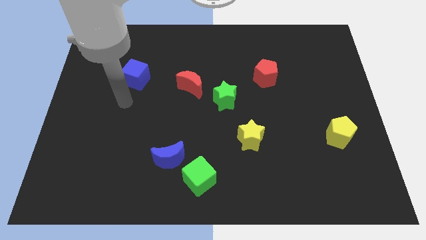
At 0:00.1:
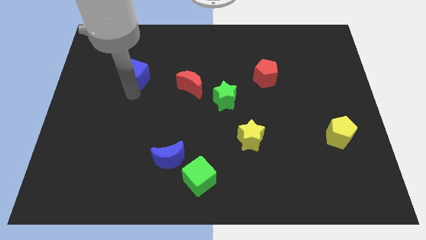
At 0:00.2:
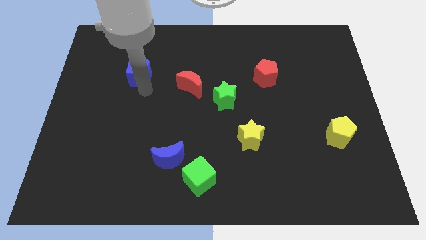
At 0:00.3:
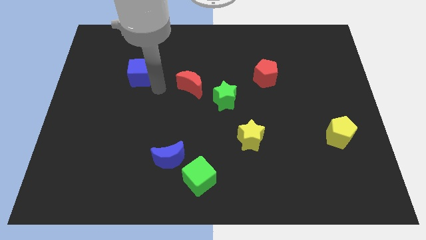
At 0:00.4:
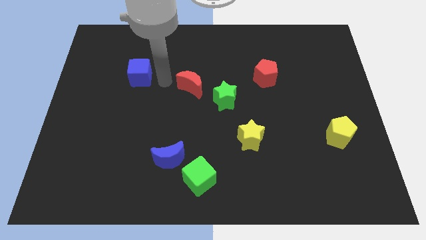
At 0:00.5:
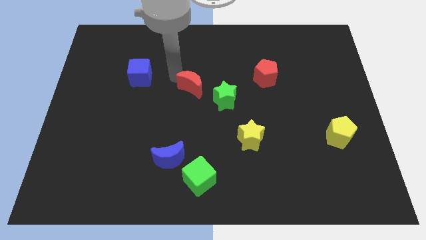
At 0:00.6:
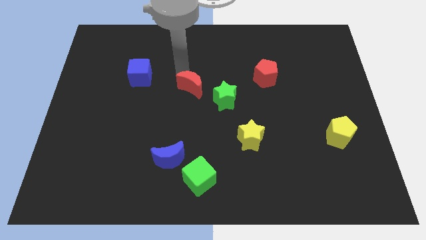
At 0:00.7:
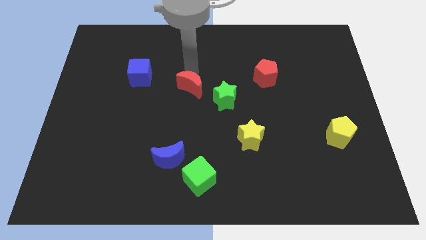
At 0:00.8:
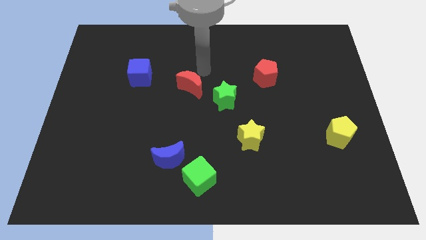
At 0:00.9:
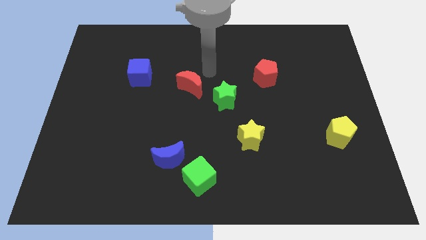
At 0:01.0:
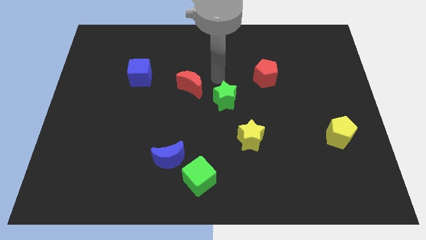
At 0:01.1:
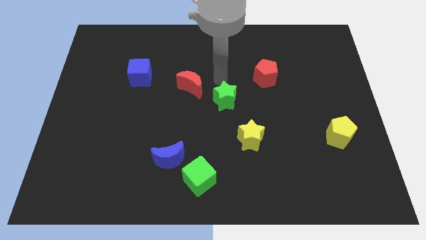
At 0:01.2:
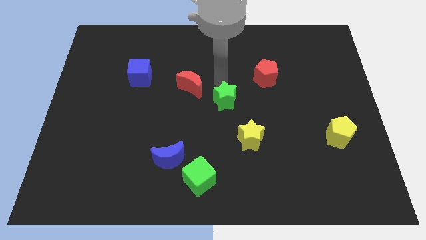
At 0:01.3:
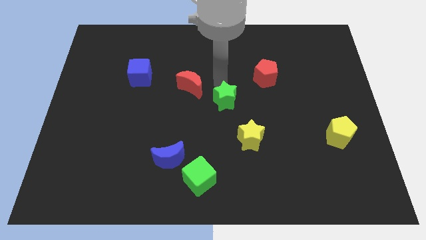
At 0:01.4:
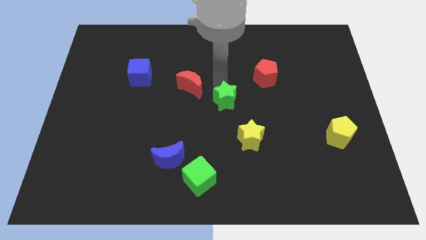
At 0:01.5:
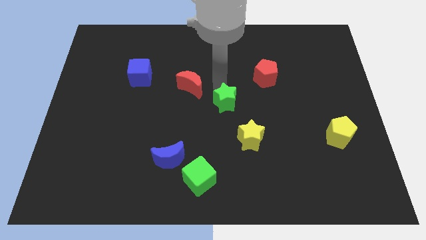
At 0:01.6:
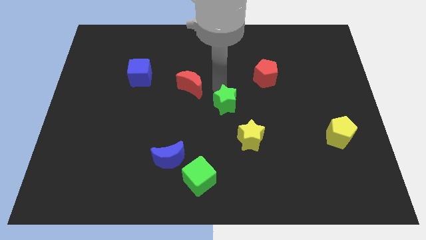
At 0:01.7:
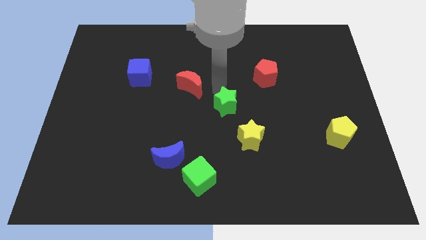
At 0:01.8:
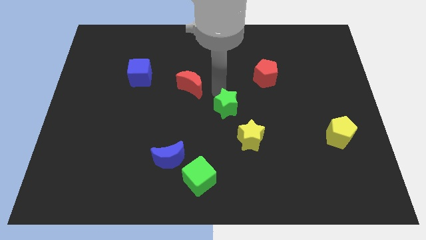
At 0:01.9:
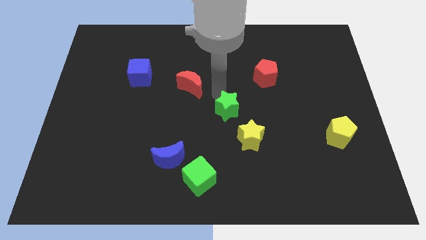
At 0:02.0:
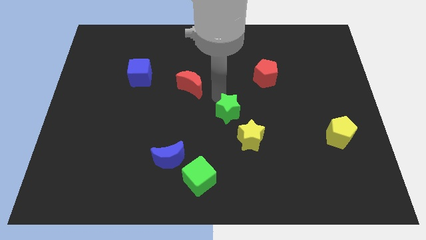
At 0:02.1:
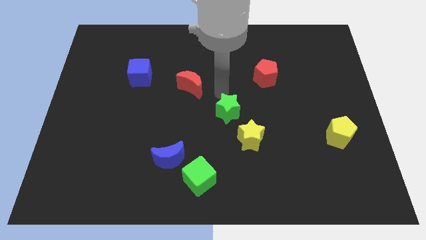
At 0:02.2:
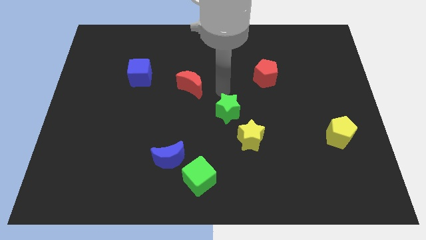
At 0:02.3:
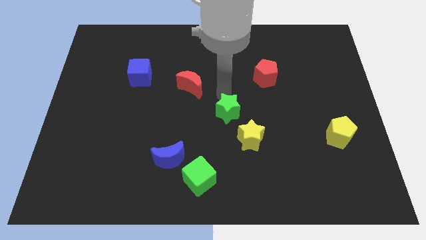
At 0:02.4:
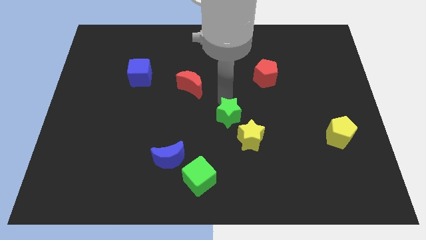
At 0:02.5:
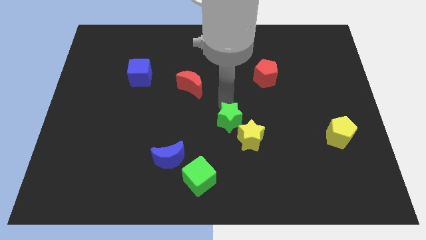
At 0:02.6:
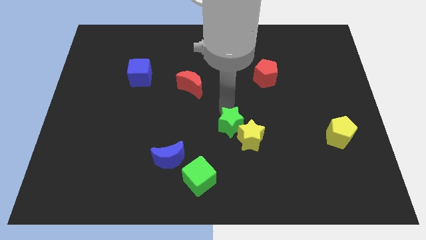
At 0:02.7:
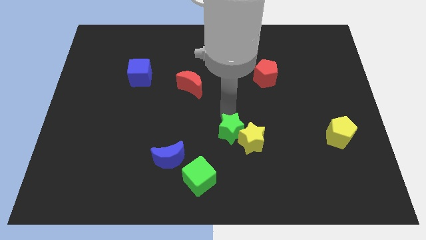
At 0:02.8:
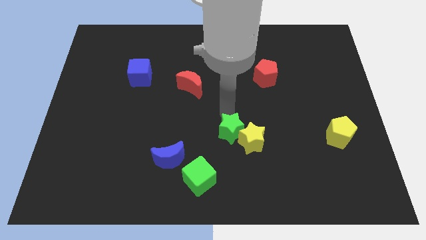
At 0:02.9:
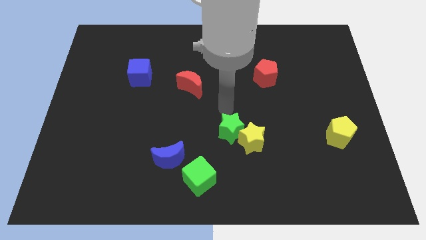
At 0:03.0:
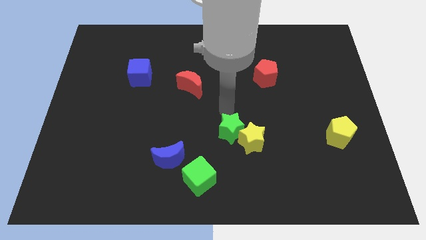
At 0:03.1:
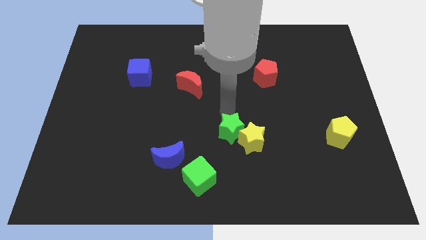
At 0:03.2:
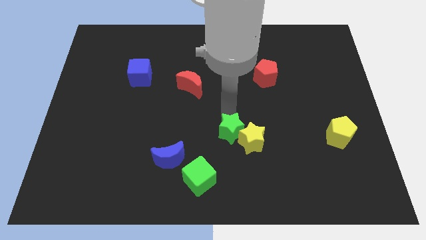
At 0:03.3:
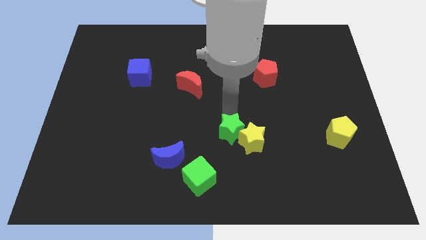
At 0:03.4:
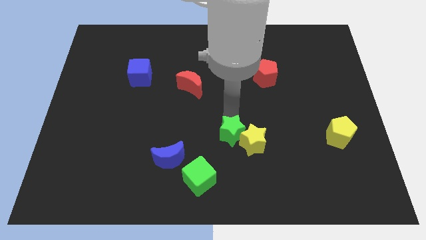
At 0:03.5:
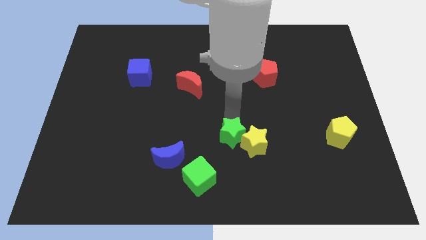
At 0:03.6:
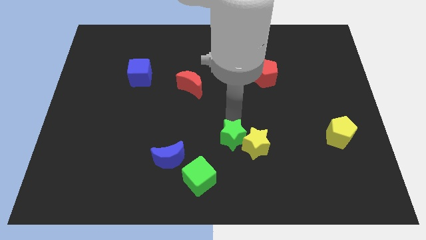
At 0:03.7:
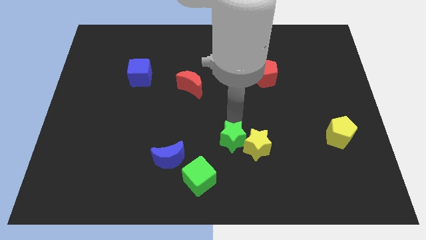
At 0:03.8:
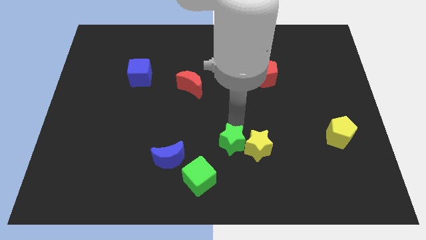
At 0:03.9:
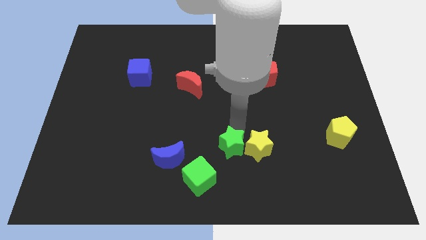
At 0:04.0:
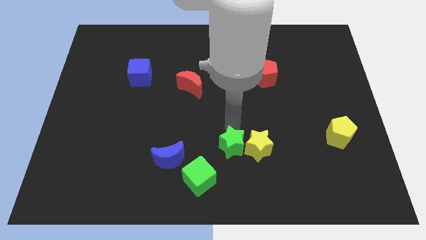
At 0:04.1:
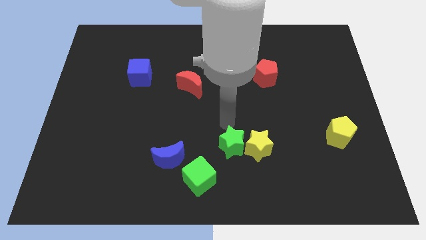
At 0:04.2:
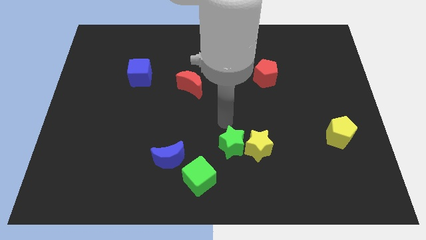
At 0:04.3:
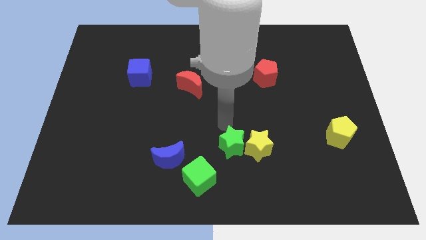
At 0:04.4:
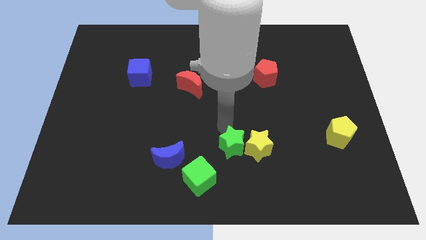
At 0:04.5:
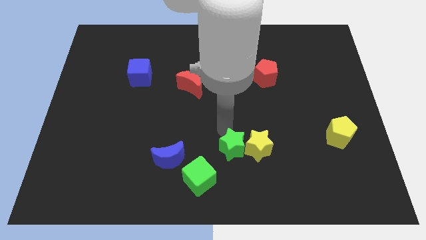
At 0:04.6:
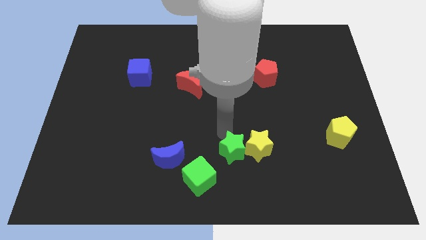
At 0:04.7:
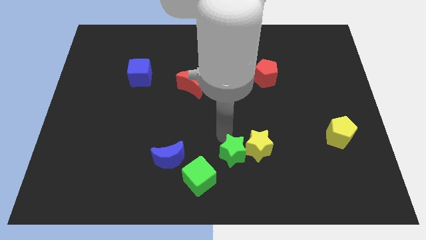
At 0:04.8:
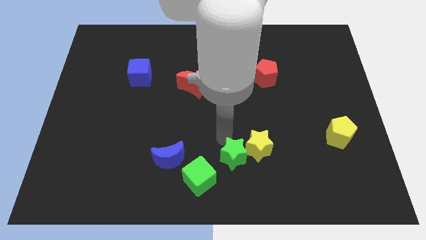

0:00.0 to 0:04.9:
slide the green star to the bottom side

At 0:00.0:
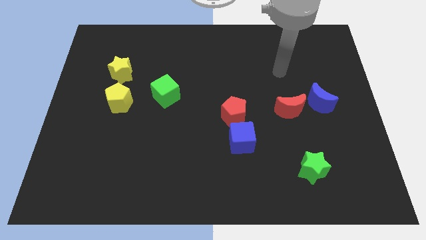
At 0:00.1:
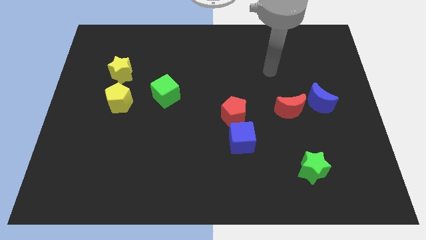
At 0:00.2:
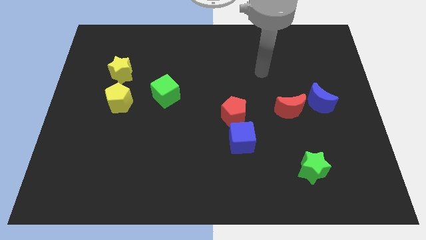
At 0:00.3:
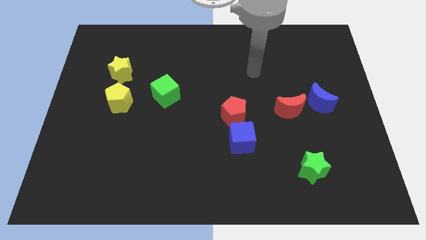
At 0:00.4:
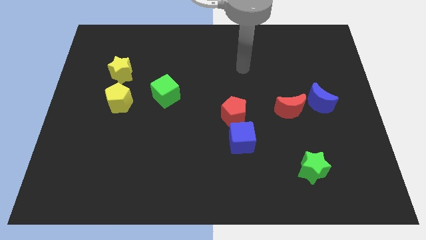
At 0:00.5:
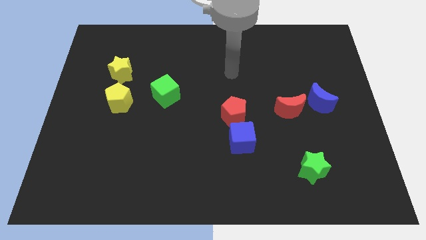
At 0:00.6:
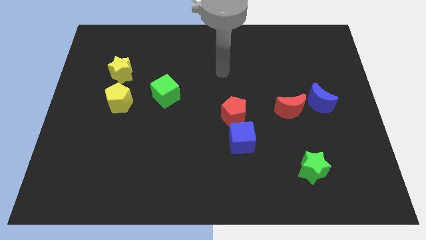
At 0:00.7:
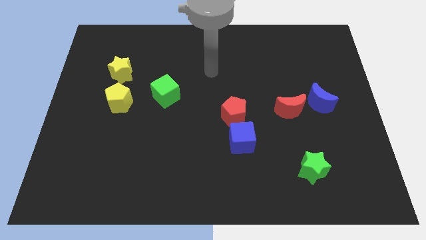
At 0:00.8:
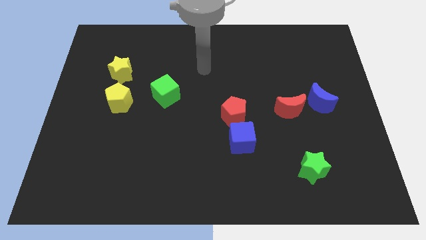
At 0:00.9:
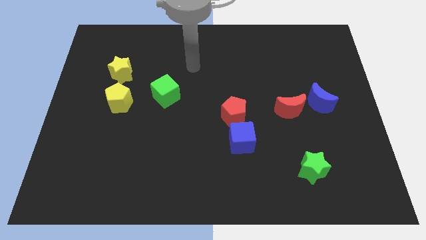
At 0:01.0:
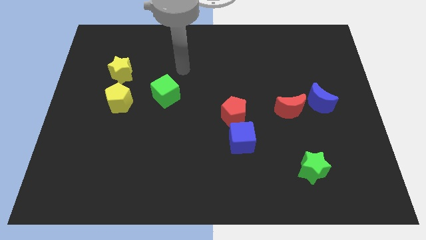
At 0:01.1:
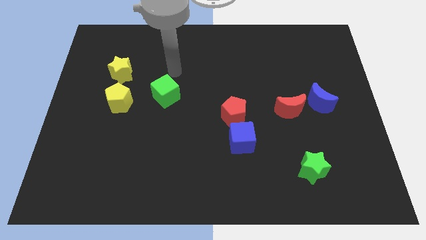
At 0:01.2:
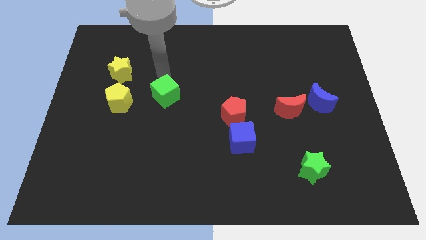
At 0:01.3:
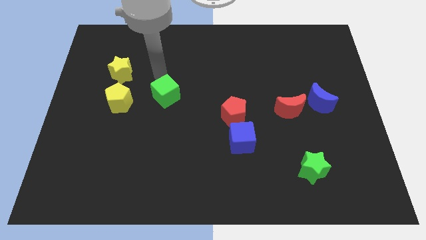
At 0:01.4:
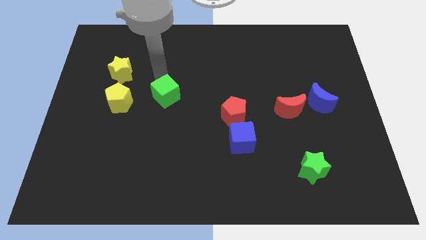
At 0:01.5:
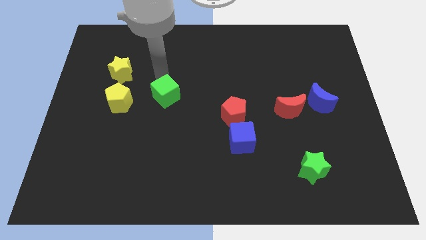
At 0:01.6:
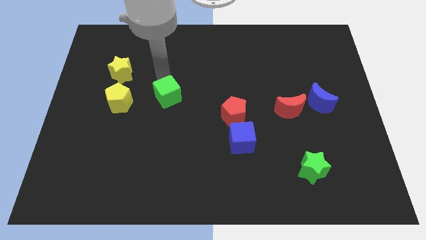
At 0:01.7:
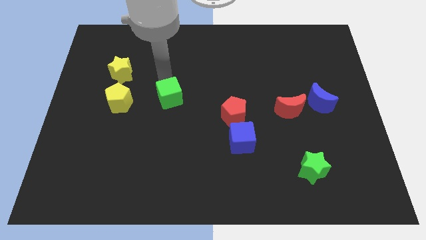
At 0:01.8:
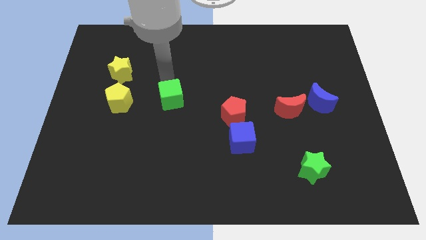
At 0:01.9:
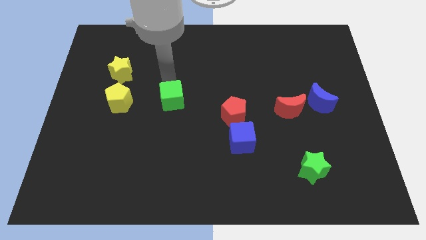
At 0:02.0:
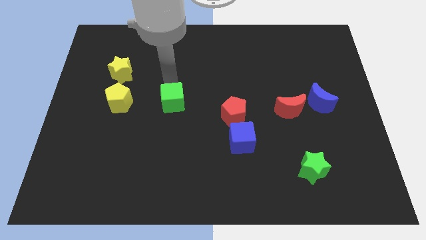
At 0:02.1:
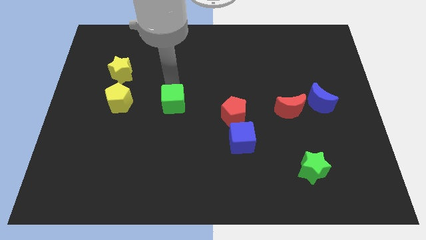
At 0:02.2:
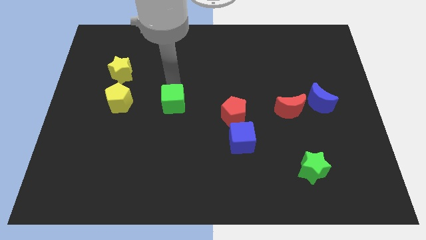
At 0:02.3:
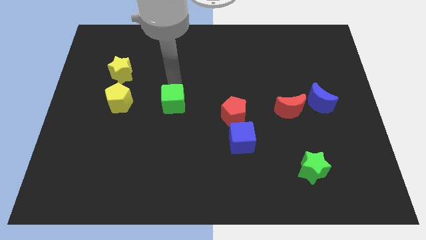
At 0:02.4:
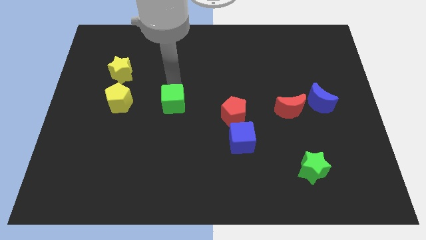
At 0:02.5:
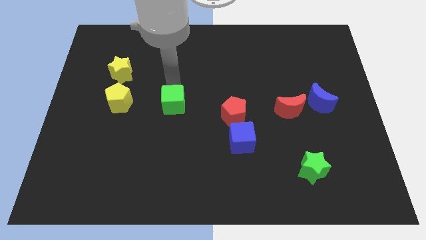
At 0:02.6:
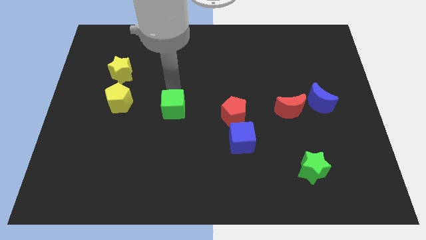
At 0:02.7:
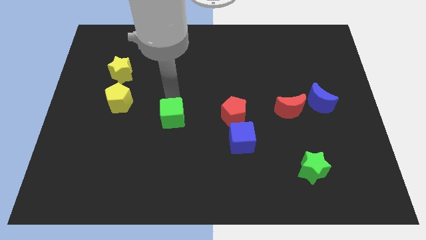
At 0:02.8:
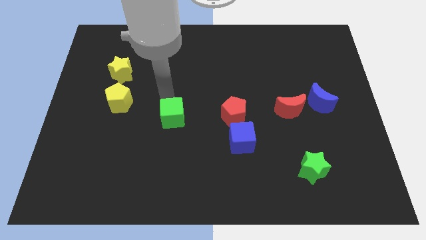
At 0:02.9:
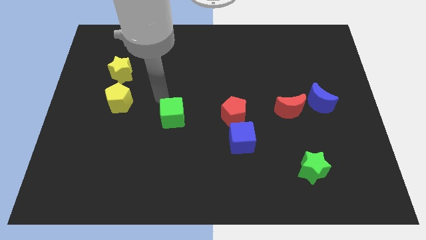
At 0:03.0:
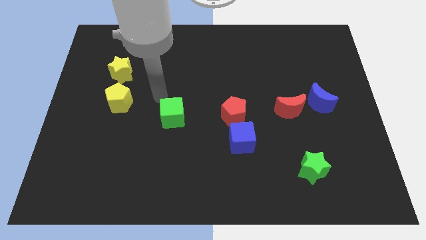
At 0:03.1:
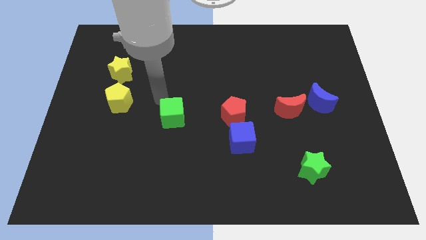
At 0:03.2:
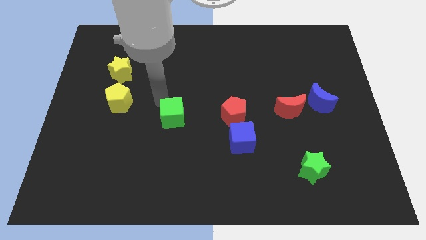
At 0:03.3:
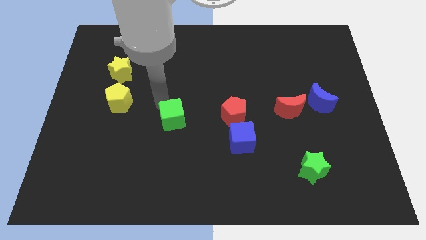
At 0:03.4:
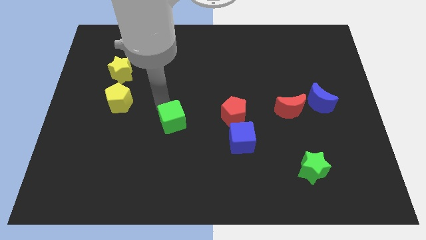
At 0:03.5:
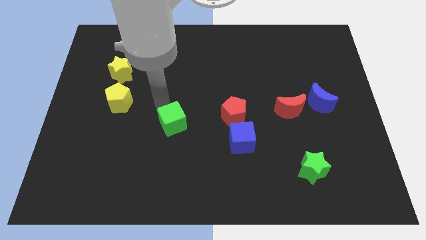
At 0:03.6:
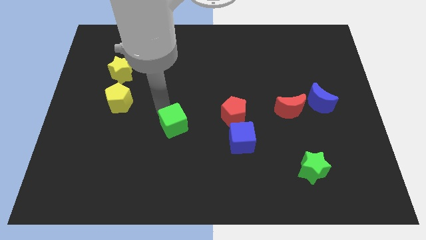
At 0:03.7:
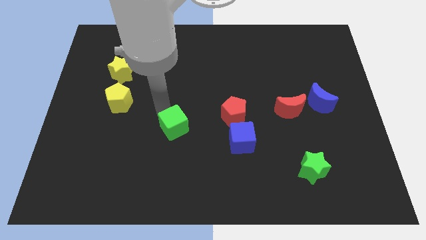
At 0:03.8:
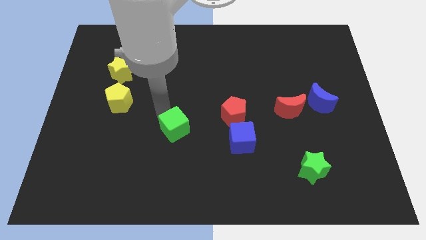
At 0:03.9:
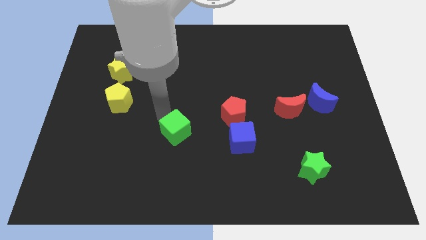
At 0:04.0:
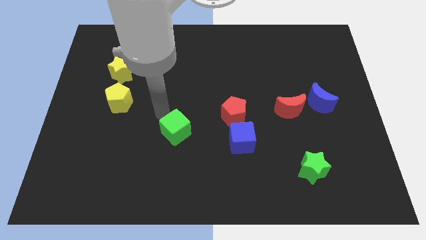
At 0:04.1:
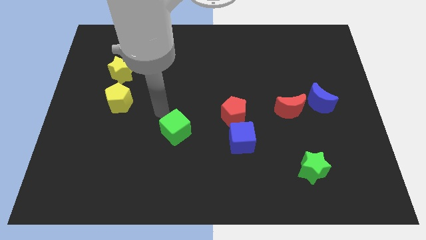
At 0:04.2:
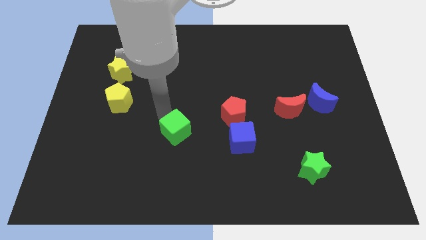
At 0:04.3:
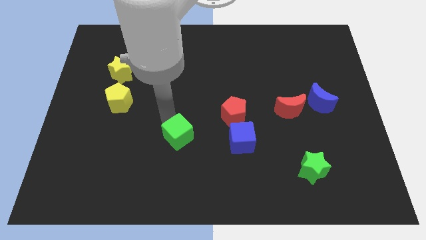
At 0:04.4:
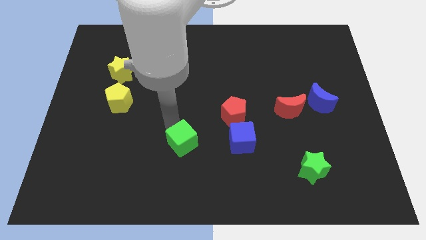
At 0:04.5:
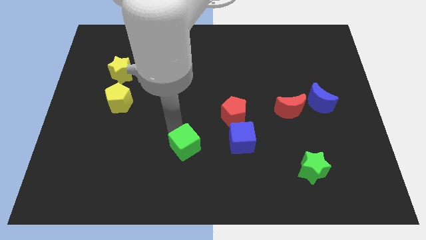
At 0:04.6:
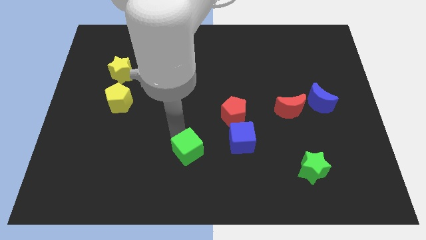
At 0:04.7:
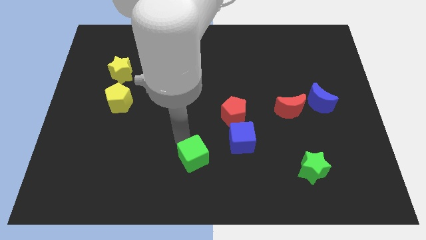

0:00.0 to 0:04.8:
put the green cube to the bottom
